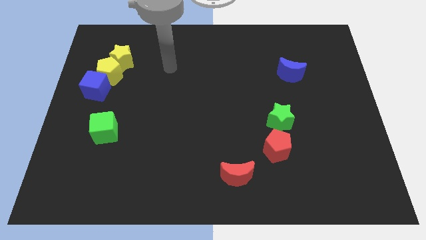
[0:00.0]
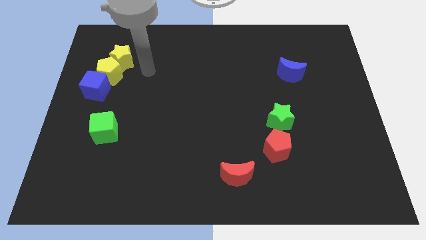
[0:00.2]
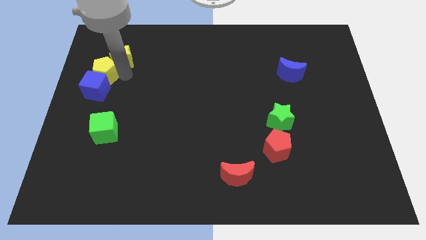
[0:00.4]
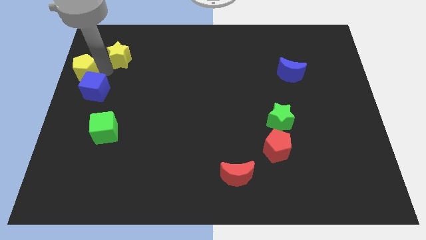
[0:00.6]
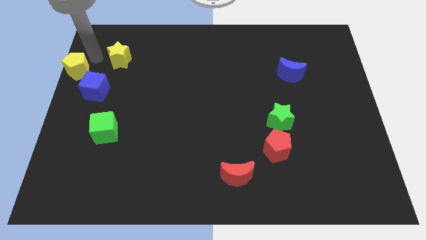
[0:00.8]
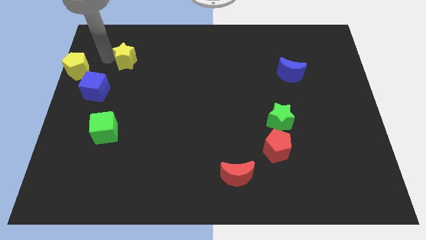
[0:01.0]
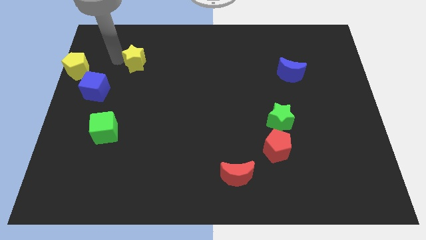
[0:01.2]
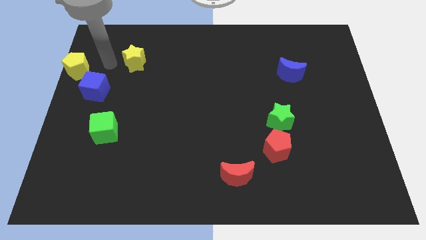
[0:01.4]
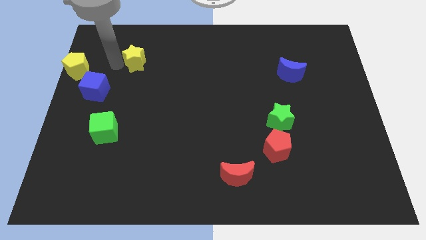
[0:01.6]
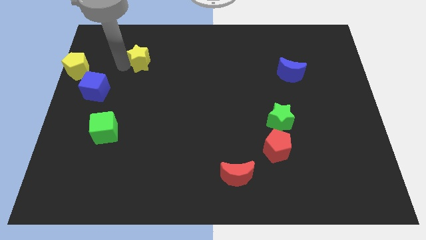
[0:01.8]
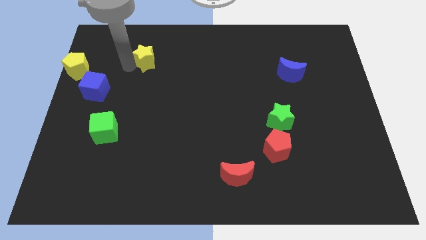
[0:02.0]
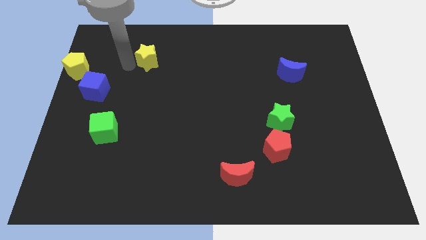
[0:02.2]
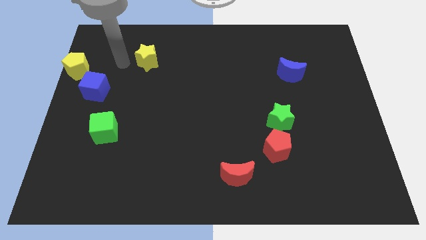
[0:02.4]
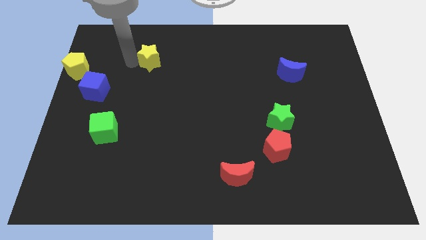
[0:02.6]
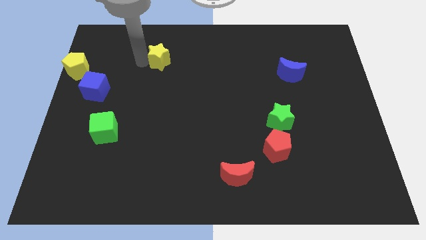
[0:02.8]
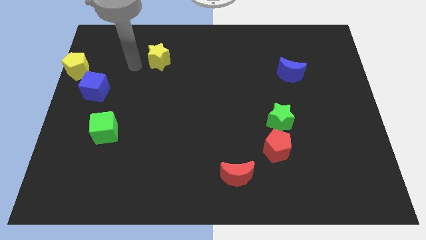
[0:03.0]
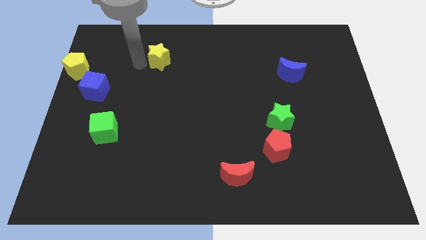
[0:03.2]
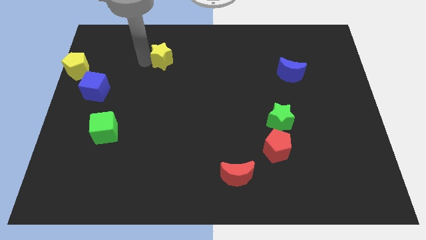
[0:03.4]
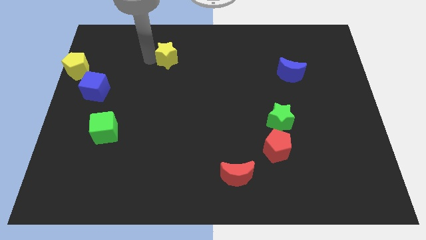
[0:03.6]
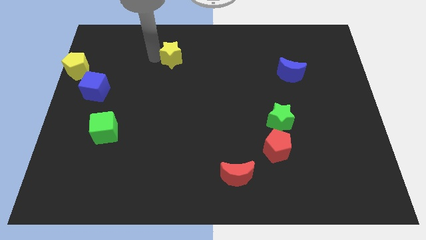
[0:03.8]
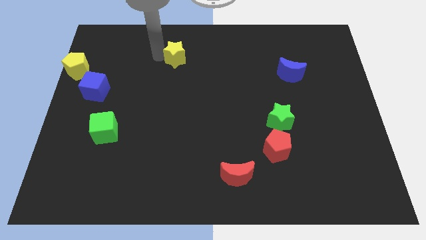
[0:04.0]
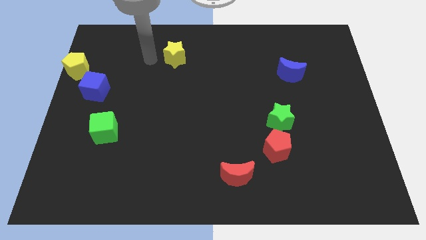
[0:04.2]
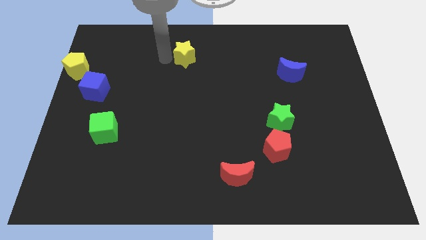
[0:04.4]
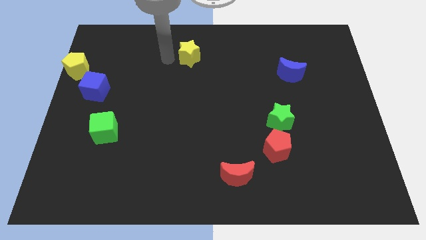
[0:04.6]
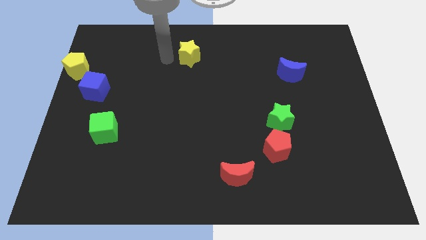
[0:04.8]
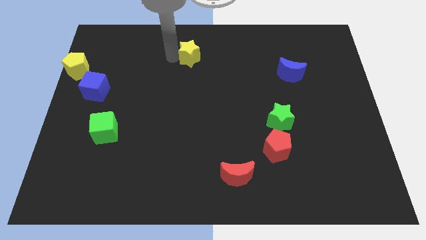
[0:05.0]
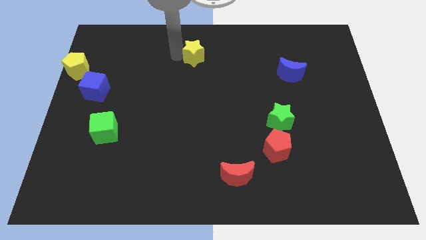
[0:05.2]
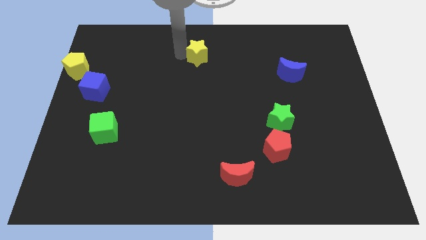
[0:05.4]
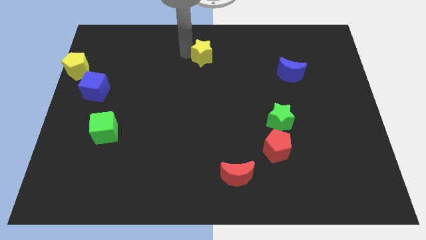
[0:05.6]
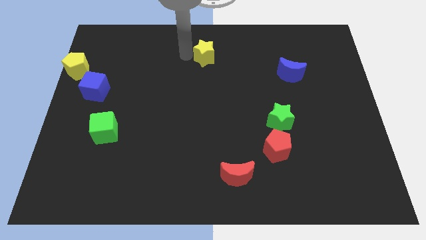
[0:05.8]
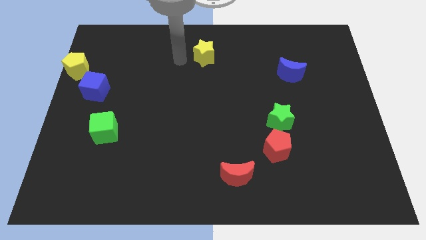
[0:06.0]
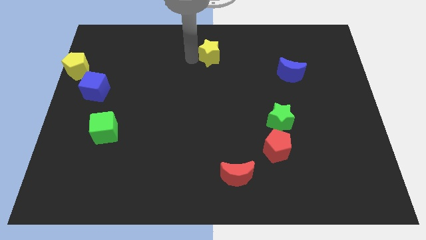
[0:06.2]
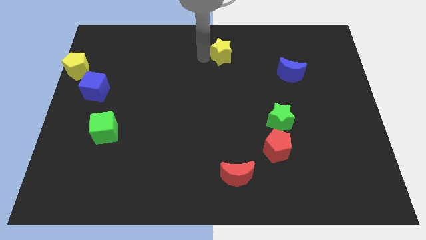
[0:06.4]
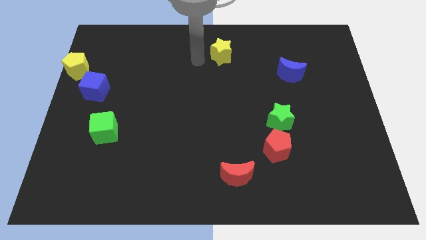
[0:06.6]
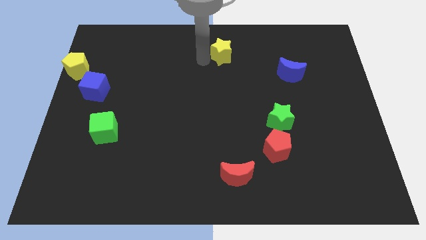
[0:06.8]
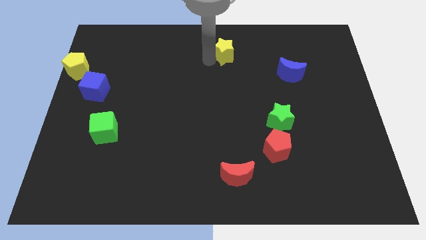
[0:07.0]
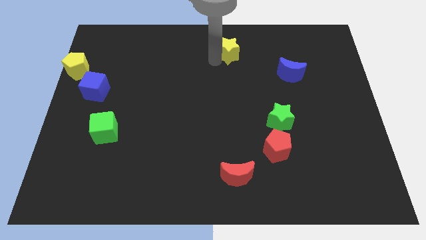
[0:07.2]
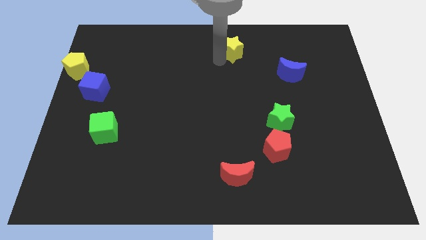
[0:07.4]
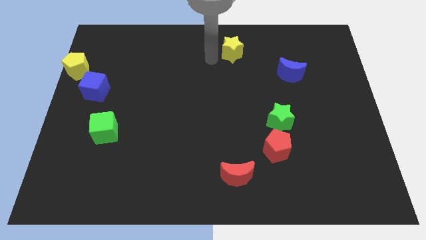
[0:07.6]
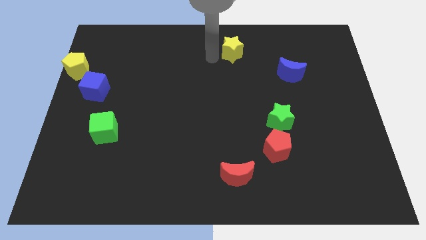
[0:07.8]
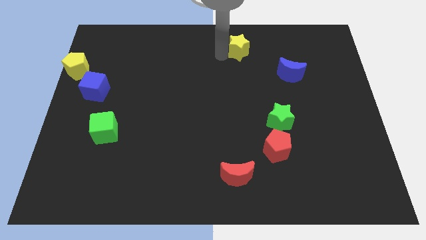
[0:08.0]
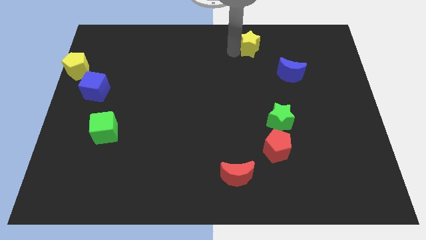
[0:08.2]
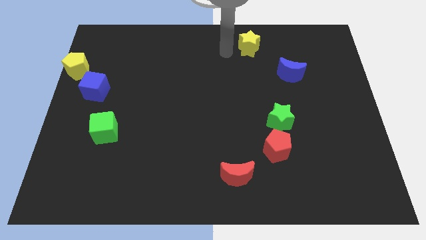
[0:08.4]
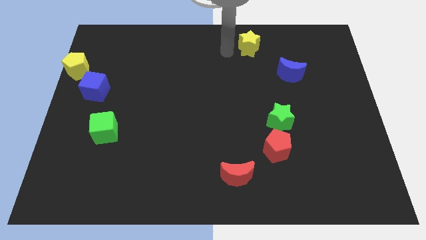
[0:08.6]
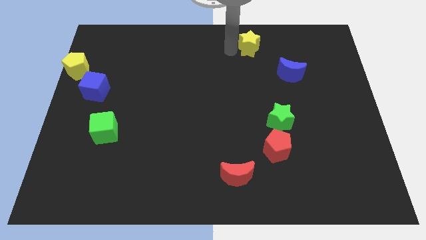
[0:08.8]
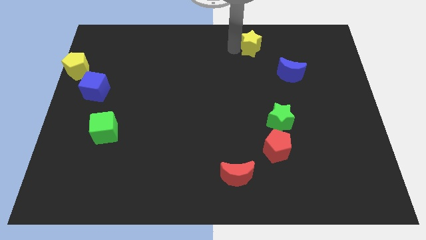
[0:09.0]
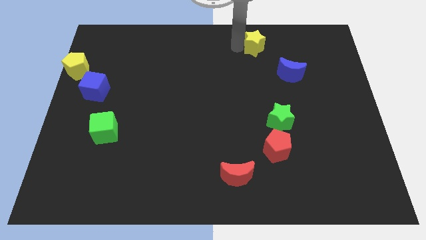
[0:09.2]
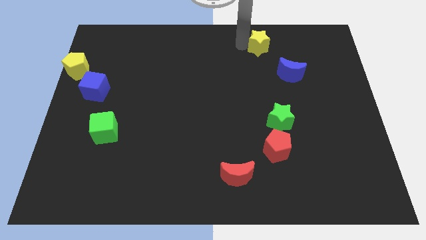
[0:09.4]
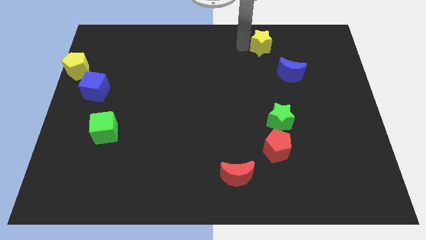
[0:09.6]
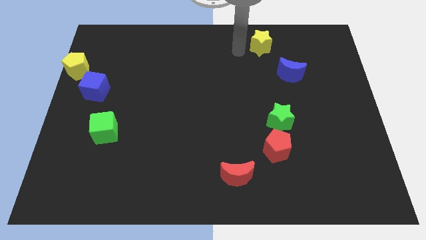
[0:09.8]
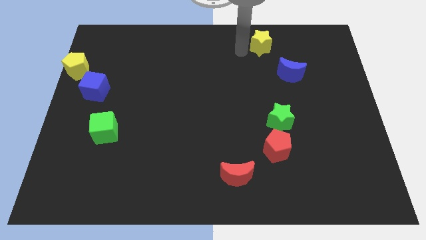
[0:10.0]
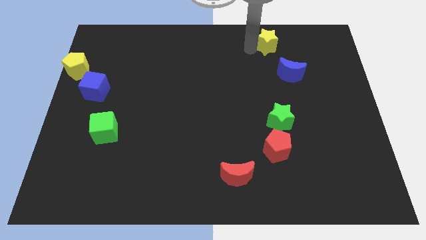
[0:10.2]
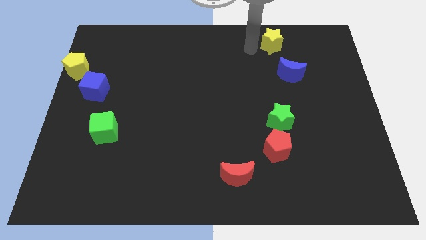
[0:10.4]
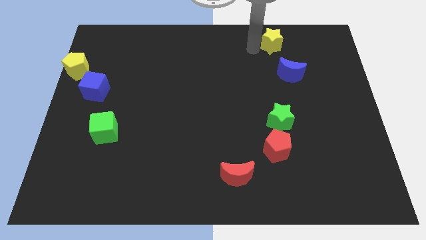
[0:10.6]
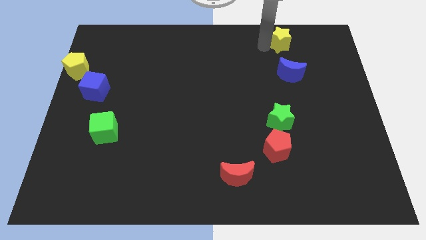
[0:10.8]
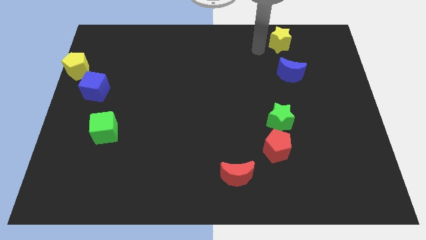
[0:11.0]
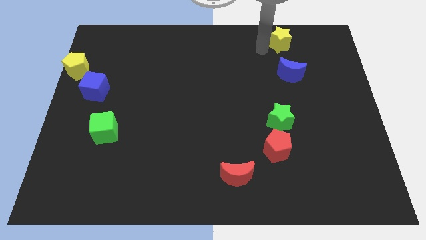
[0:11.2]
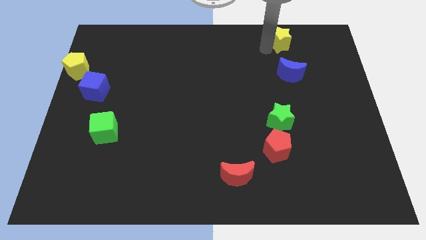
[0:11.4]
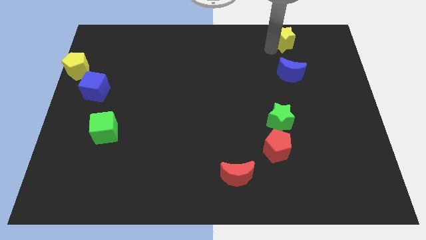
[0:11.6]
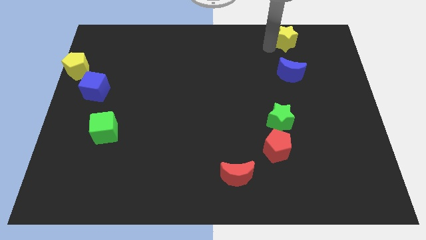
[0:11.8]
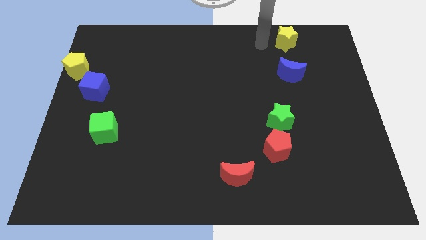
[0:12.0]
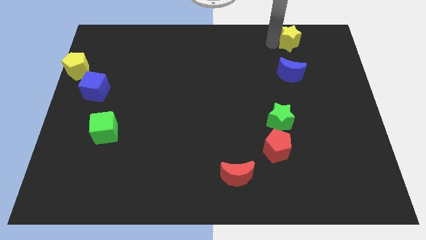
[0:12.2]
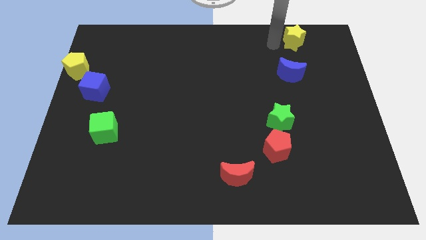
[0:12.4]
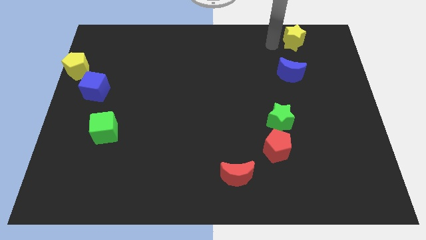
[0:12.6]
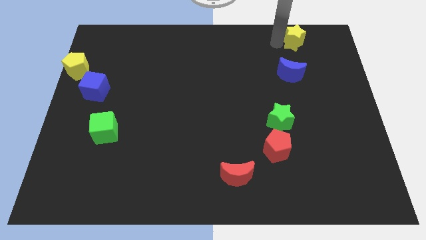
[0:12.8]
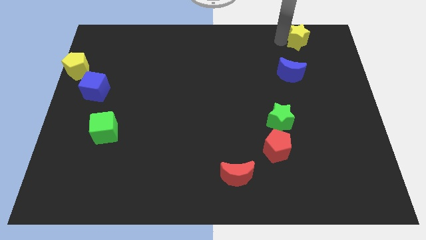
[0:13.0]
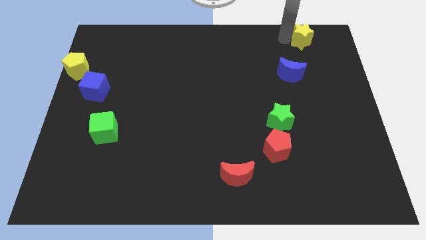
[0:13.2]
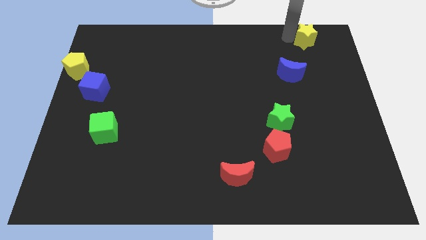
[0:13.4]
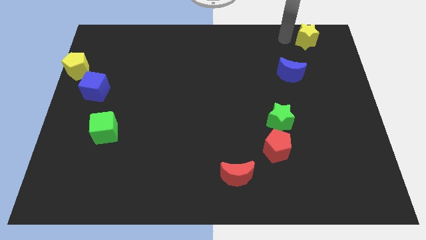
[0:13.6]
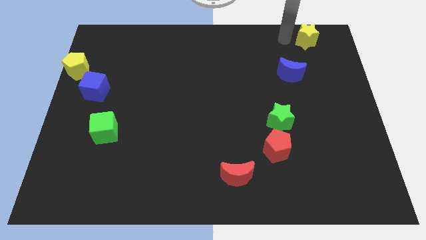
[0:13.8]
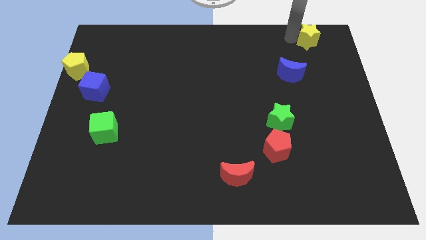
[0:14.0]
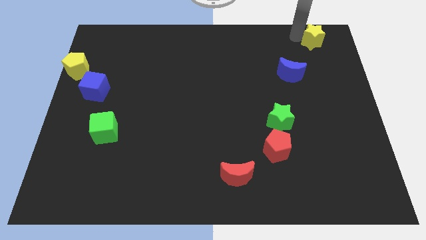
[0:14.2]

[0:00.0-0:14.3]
put the yellow star to the upper right corner
